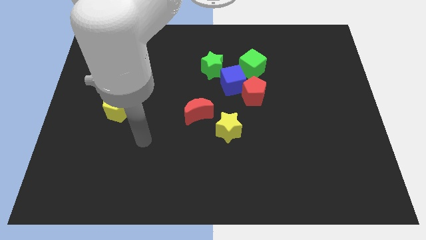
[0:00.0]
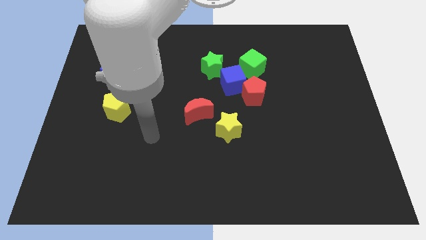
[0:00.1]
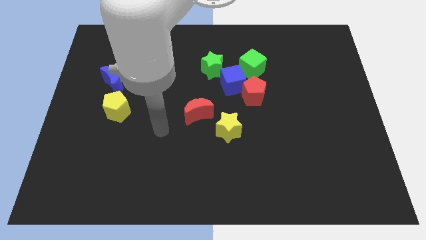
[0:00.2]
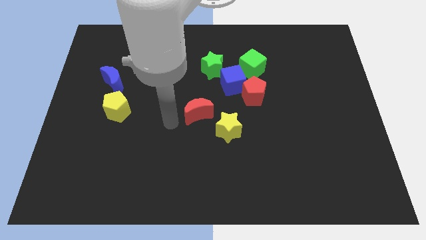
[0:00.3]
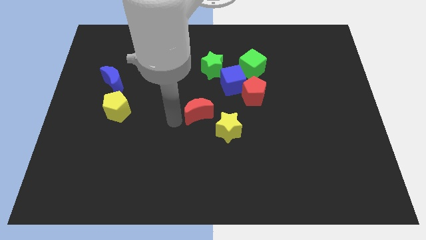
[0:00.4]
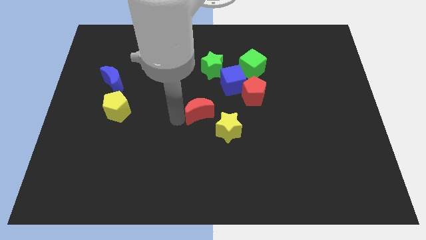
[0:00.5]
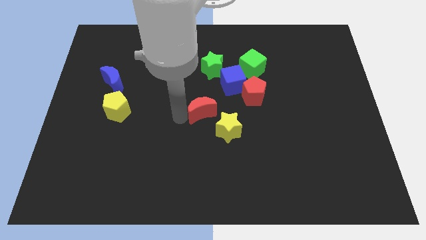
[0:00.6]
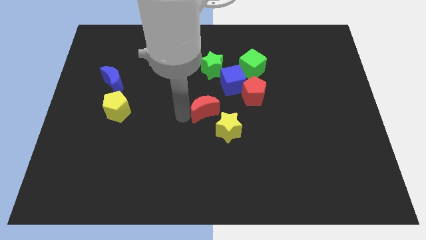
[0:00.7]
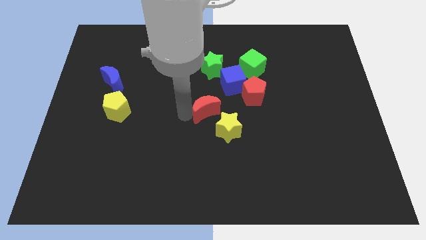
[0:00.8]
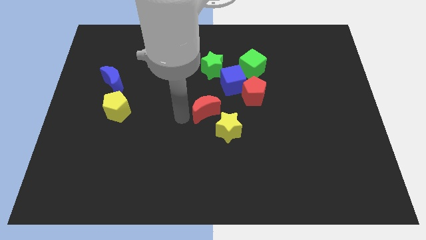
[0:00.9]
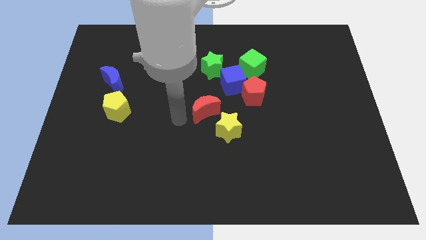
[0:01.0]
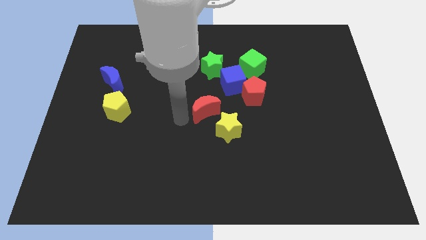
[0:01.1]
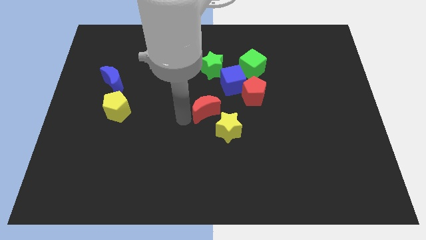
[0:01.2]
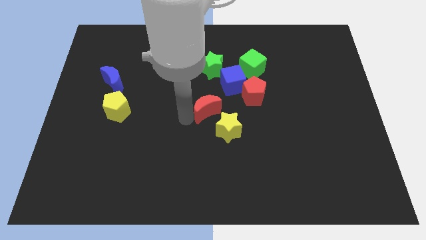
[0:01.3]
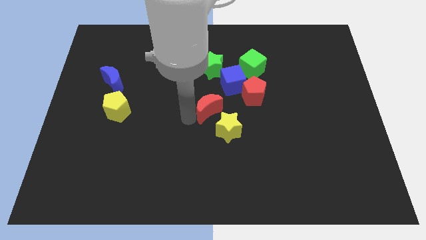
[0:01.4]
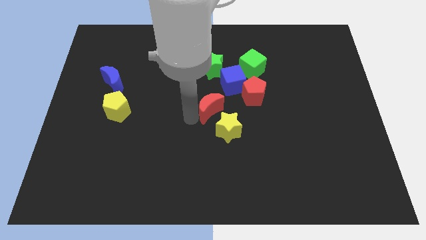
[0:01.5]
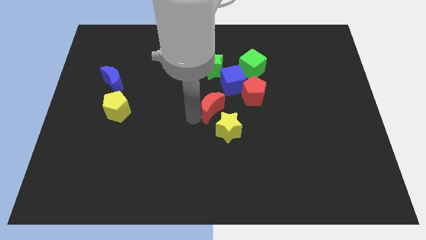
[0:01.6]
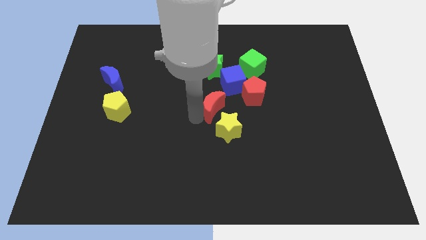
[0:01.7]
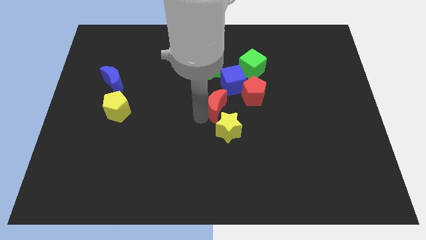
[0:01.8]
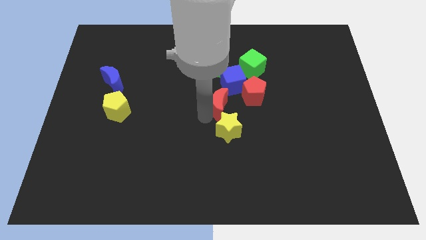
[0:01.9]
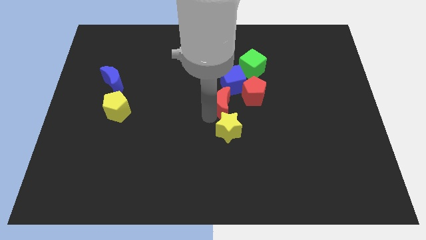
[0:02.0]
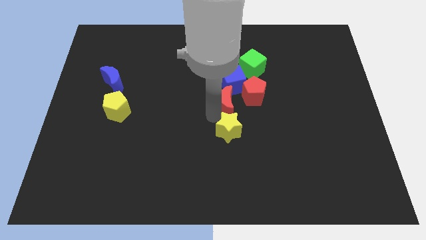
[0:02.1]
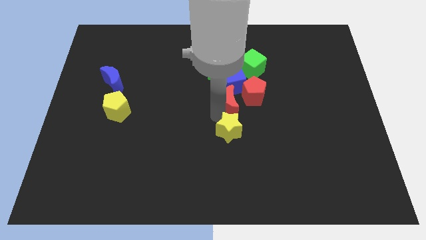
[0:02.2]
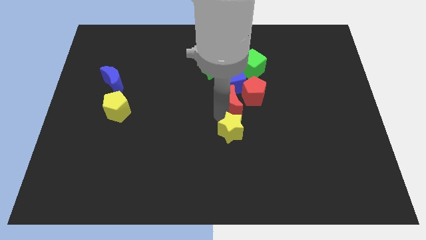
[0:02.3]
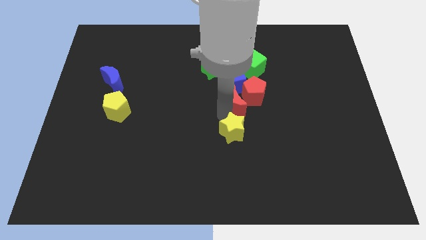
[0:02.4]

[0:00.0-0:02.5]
put the red moon next to the red pentagon

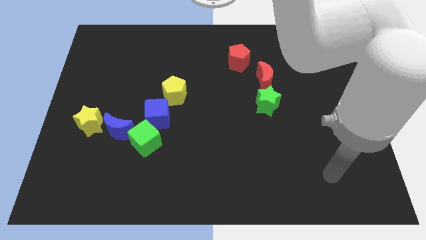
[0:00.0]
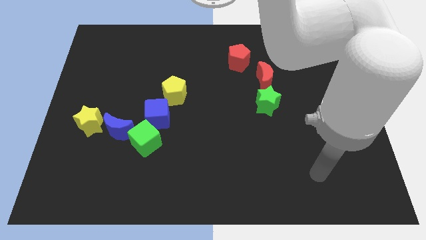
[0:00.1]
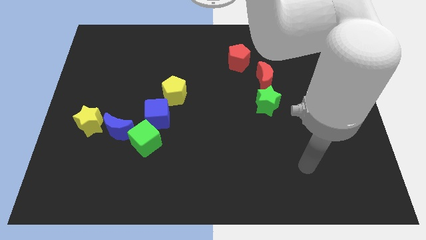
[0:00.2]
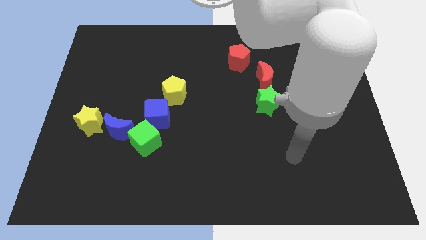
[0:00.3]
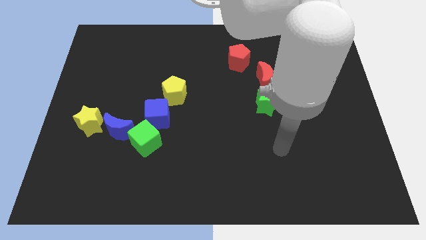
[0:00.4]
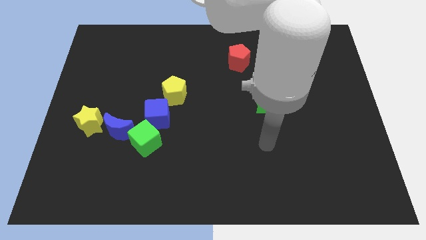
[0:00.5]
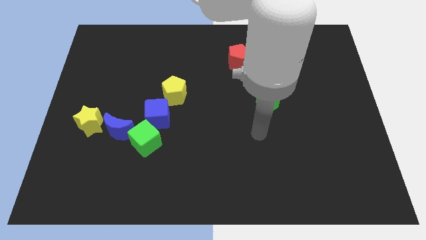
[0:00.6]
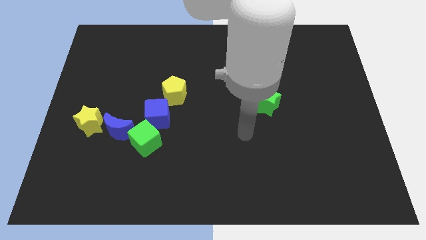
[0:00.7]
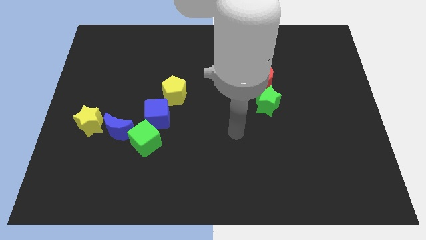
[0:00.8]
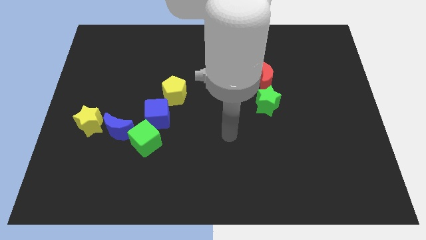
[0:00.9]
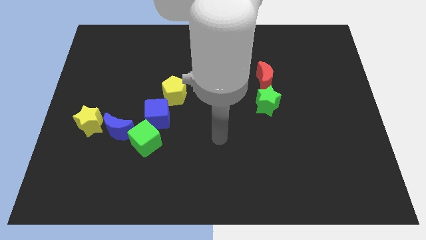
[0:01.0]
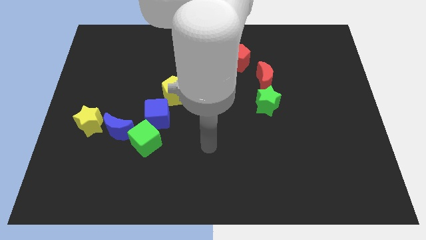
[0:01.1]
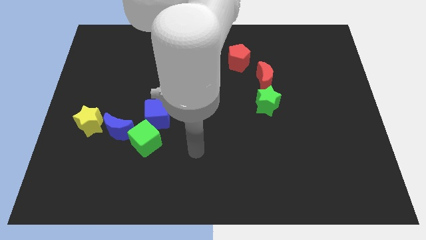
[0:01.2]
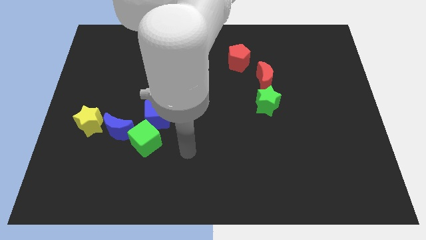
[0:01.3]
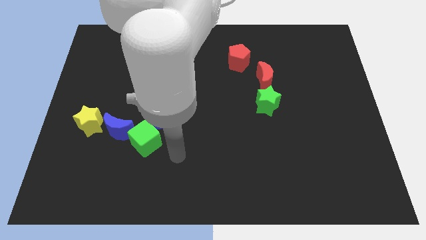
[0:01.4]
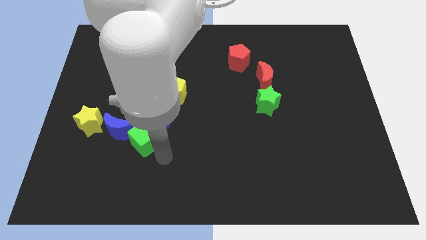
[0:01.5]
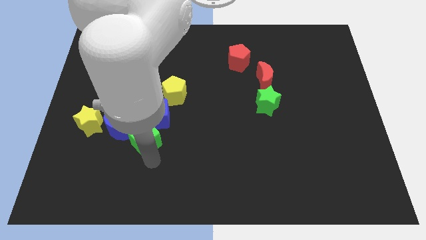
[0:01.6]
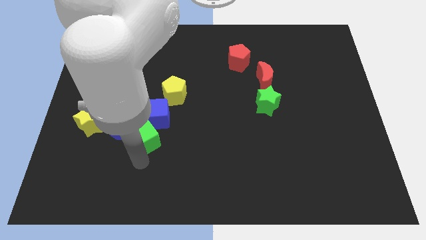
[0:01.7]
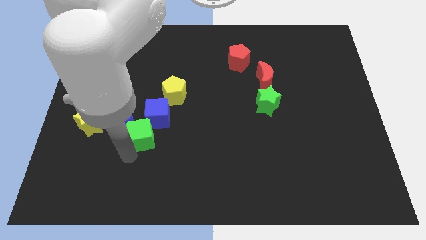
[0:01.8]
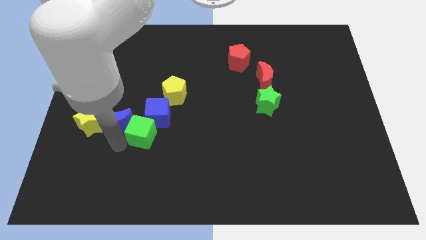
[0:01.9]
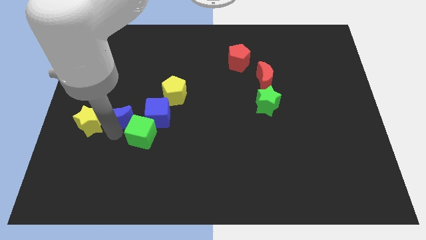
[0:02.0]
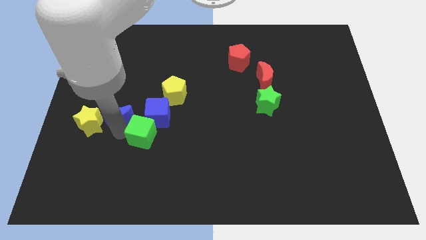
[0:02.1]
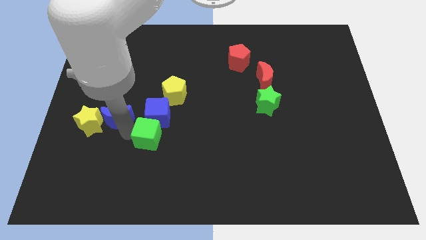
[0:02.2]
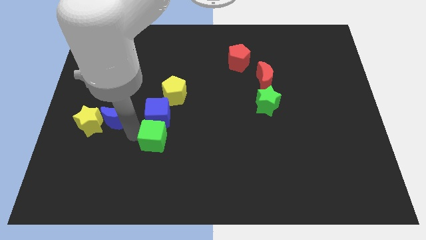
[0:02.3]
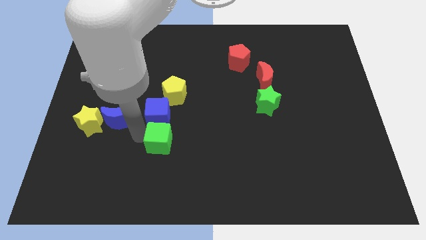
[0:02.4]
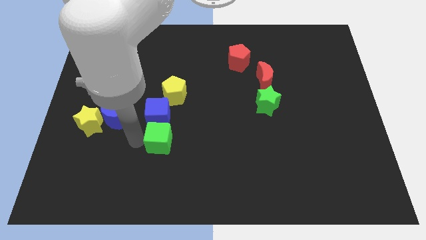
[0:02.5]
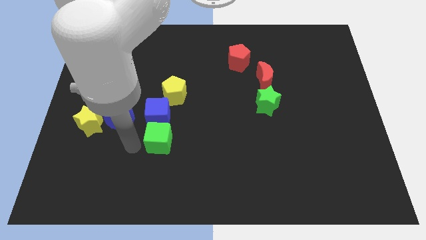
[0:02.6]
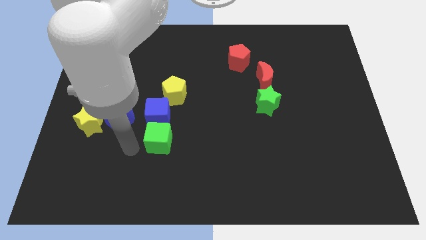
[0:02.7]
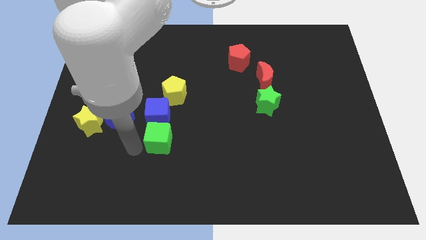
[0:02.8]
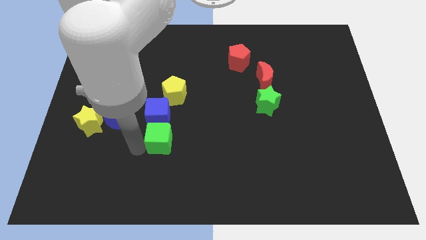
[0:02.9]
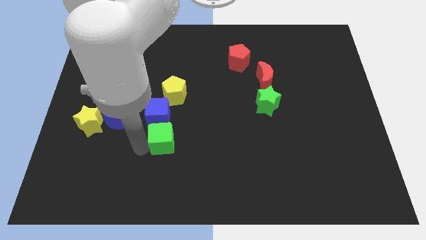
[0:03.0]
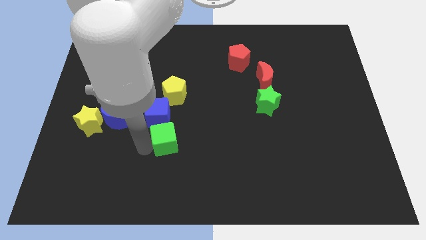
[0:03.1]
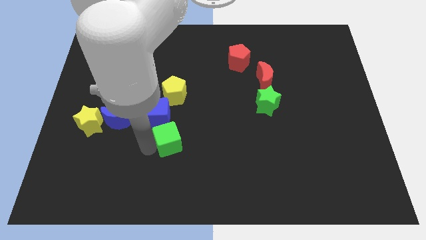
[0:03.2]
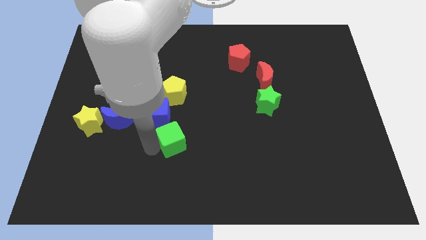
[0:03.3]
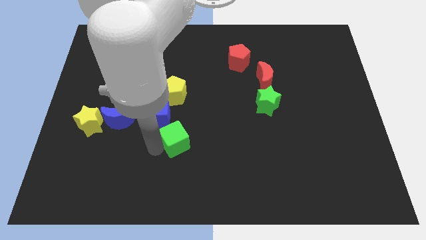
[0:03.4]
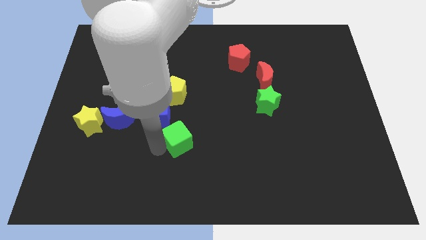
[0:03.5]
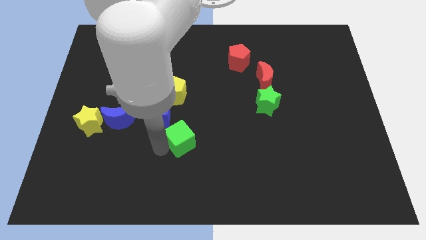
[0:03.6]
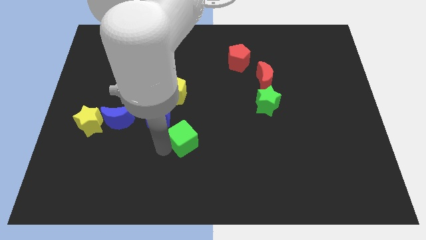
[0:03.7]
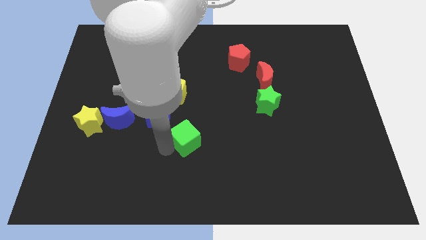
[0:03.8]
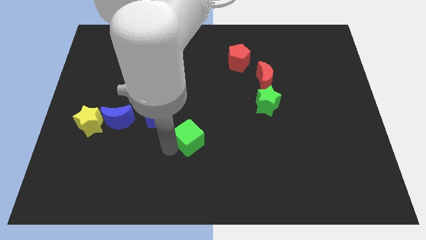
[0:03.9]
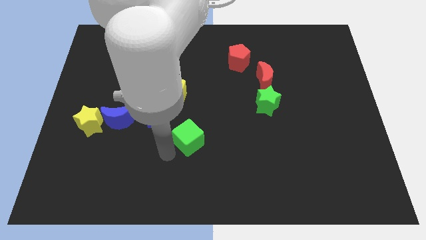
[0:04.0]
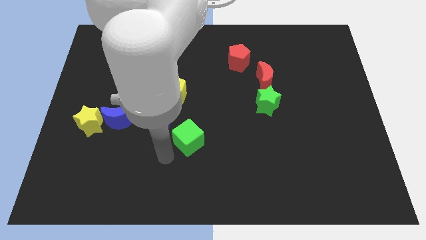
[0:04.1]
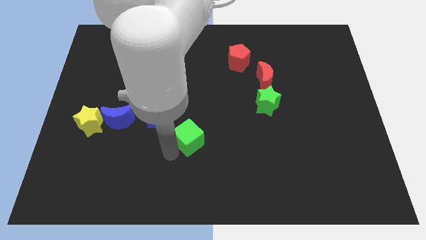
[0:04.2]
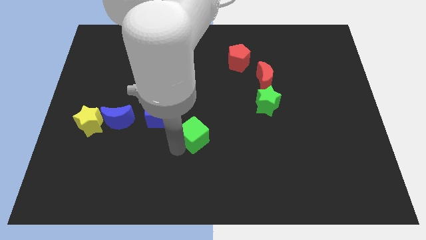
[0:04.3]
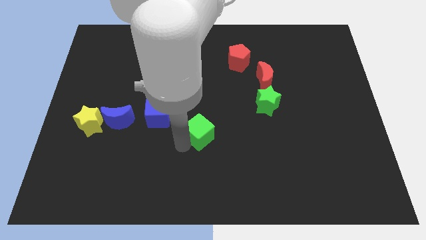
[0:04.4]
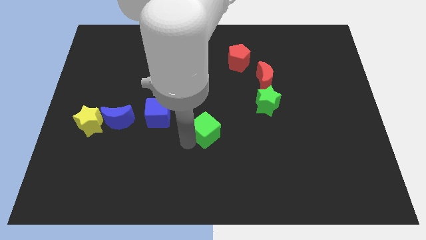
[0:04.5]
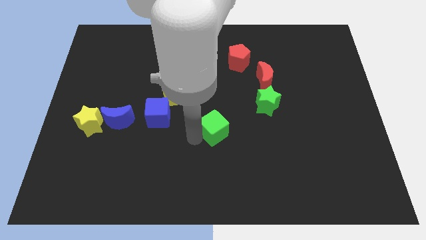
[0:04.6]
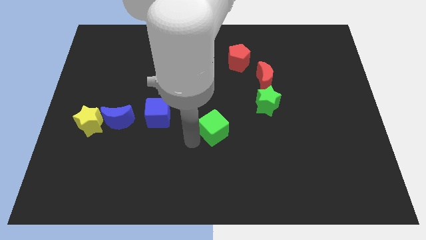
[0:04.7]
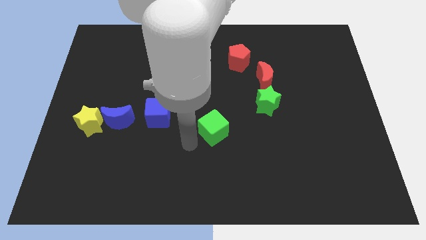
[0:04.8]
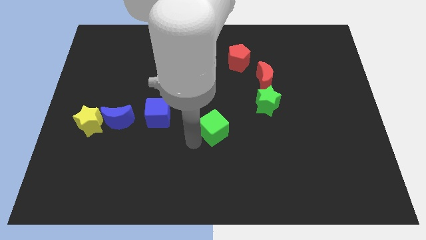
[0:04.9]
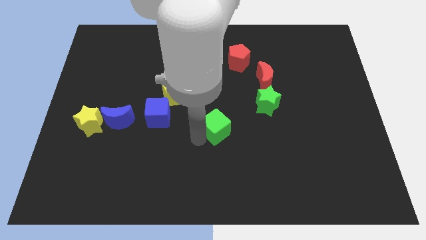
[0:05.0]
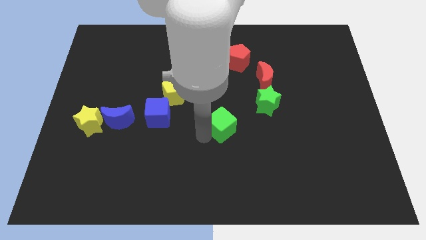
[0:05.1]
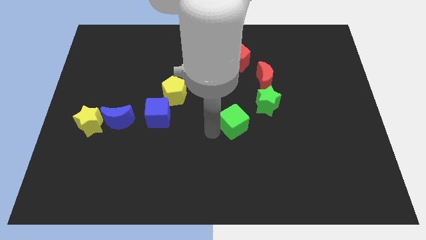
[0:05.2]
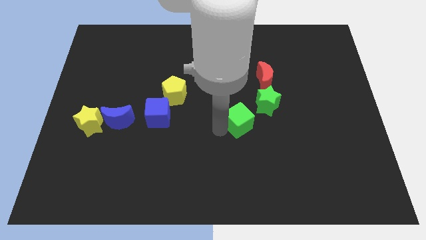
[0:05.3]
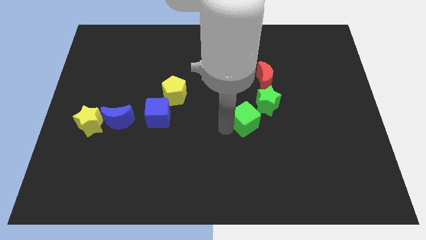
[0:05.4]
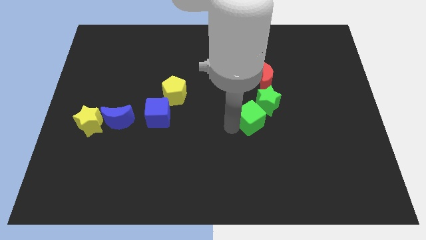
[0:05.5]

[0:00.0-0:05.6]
slide the green cube next to the green star

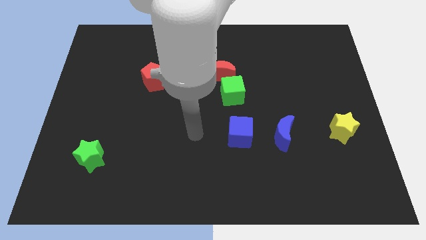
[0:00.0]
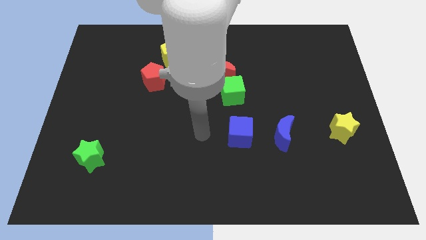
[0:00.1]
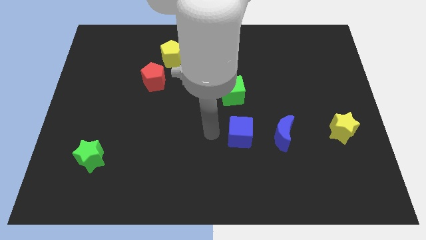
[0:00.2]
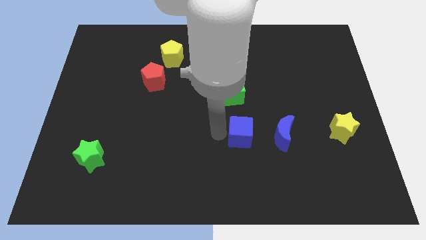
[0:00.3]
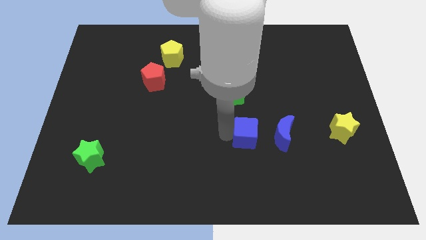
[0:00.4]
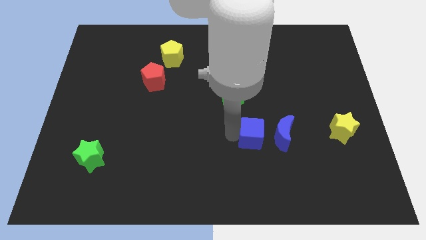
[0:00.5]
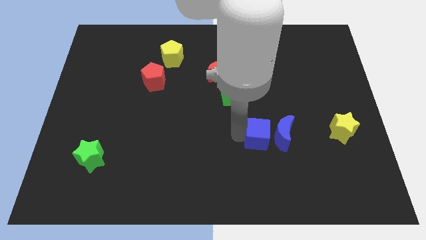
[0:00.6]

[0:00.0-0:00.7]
move the blue cube next to the blue moon
